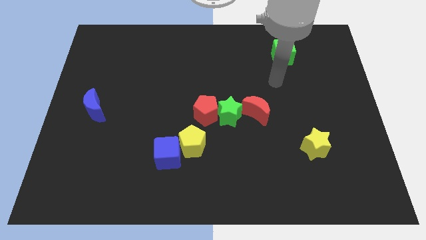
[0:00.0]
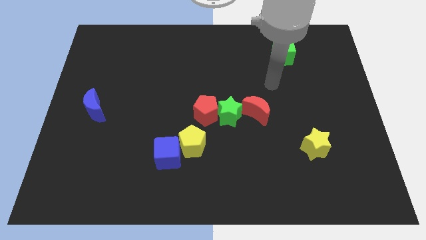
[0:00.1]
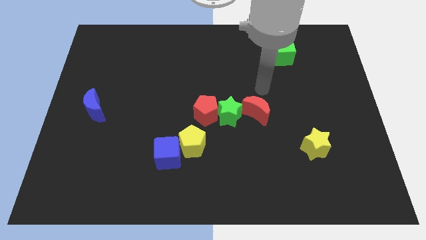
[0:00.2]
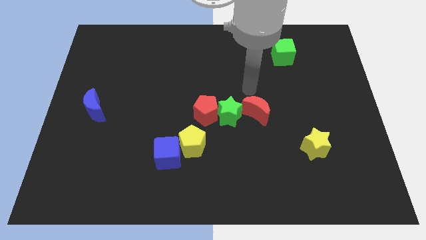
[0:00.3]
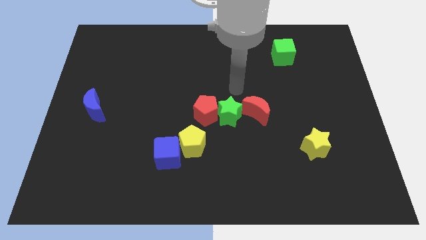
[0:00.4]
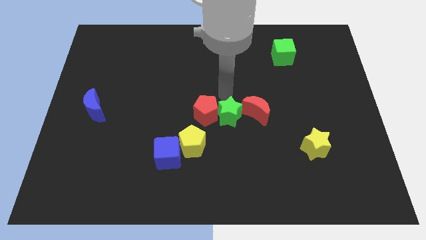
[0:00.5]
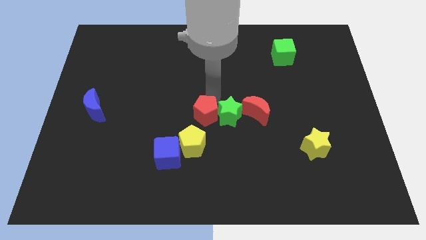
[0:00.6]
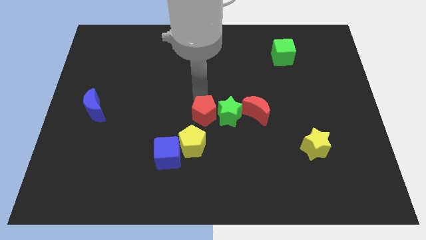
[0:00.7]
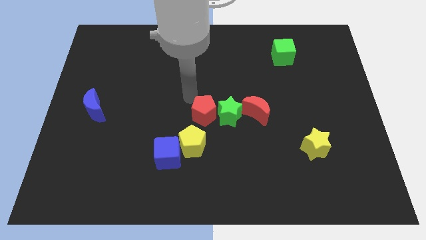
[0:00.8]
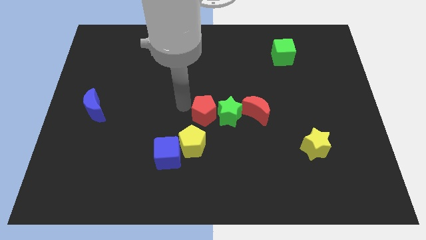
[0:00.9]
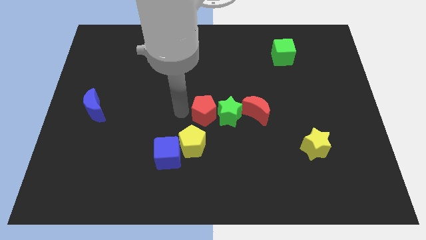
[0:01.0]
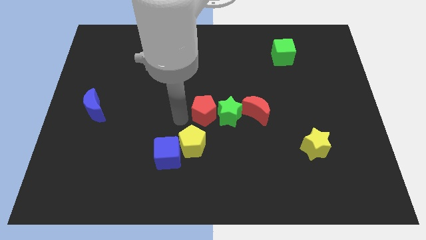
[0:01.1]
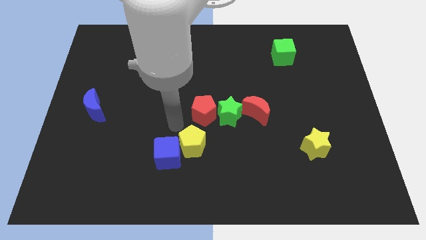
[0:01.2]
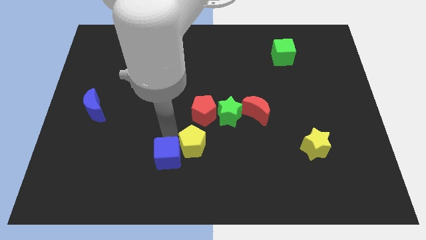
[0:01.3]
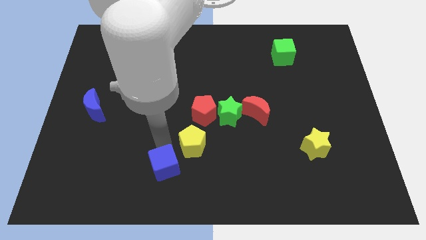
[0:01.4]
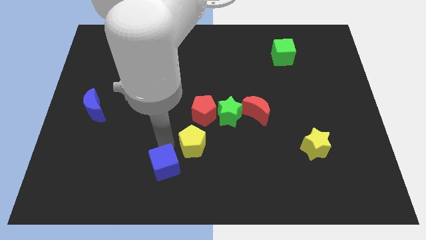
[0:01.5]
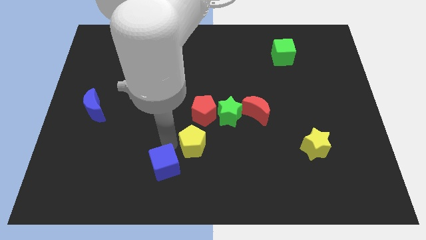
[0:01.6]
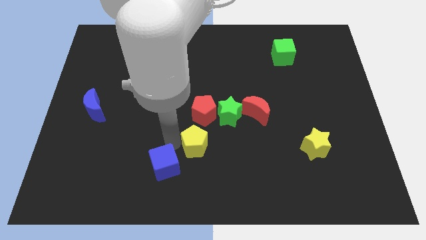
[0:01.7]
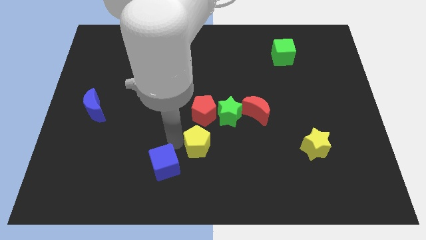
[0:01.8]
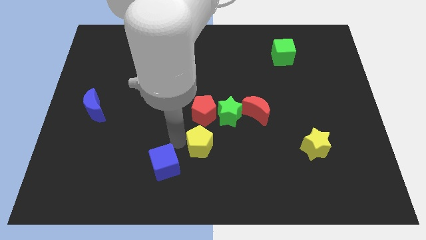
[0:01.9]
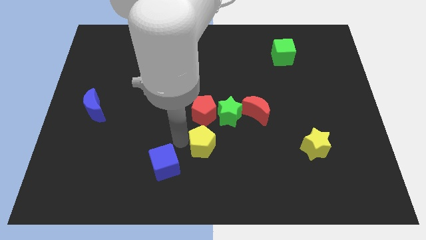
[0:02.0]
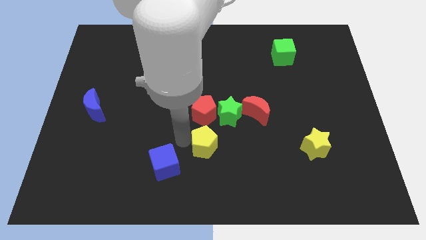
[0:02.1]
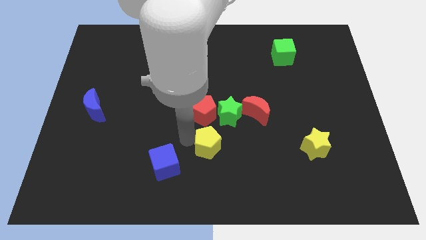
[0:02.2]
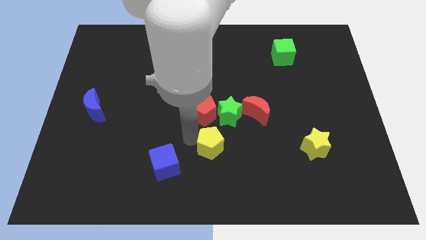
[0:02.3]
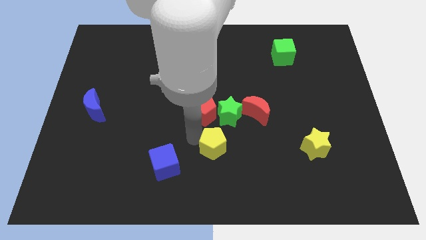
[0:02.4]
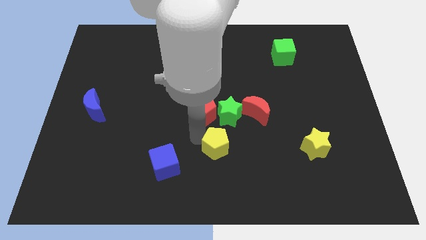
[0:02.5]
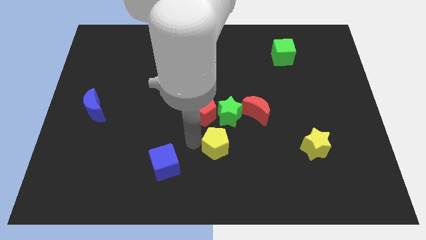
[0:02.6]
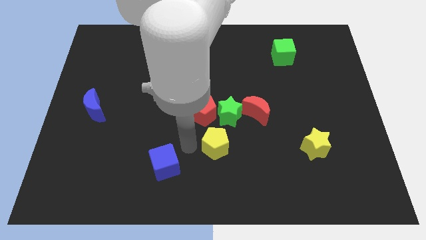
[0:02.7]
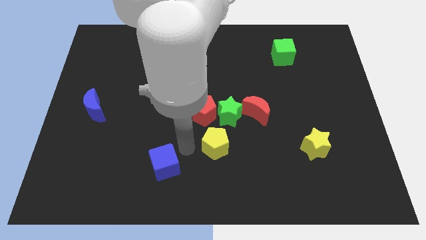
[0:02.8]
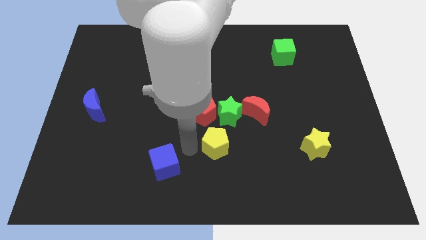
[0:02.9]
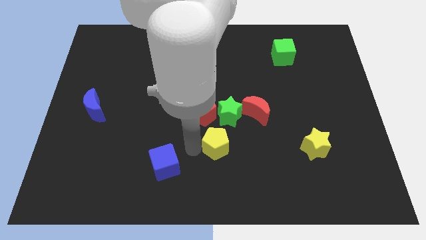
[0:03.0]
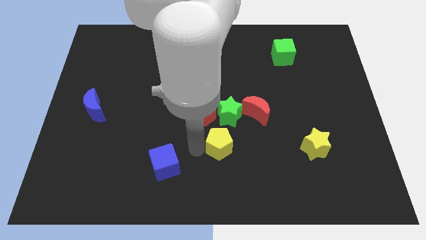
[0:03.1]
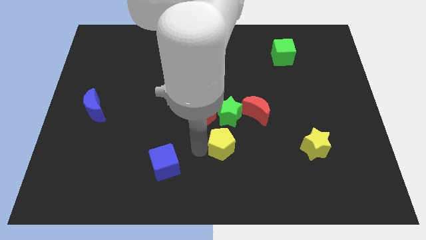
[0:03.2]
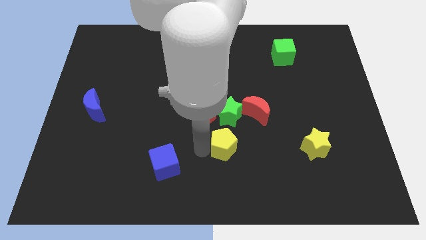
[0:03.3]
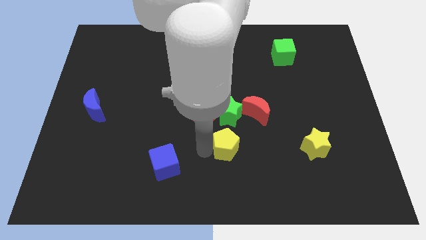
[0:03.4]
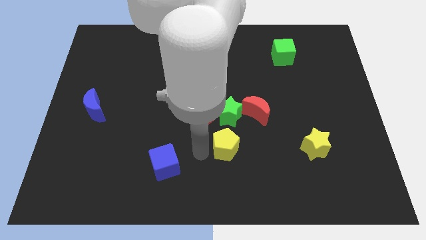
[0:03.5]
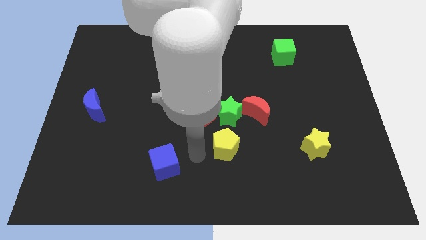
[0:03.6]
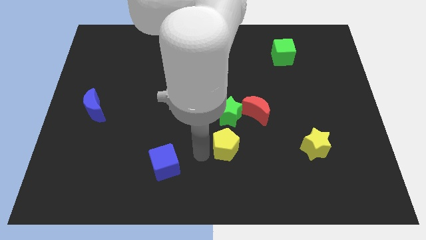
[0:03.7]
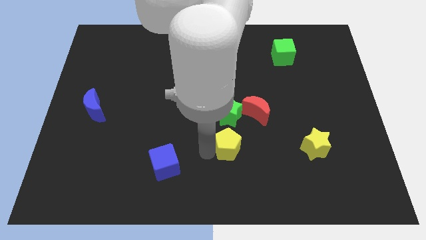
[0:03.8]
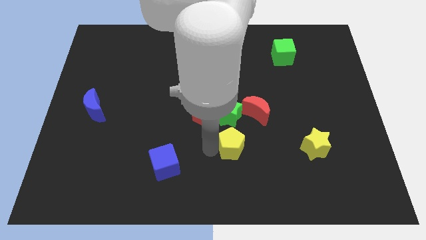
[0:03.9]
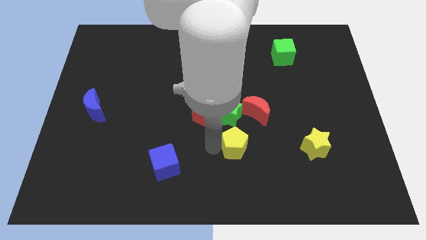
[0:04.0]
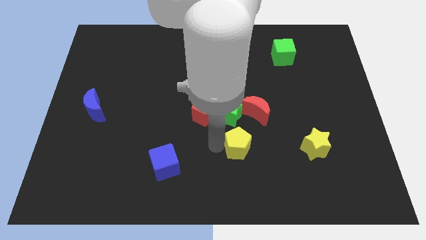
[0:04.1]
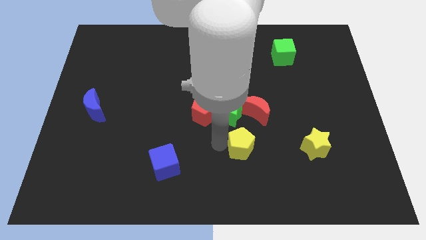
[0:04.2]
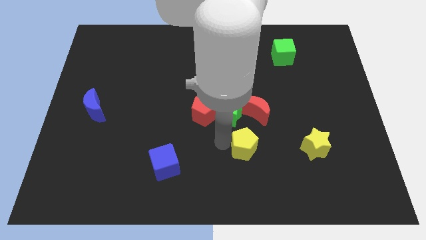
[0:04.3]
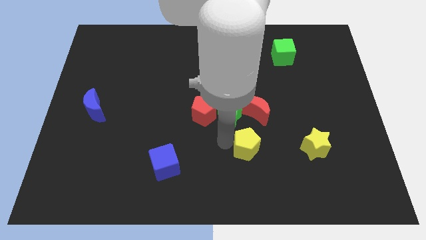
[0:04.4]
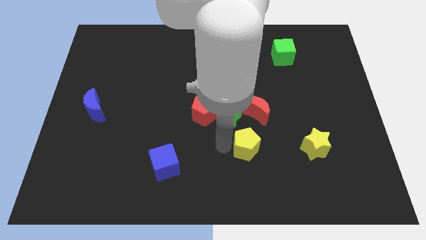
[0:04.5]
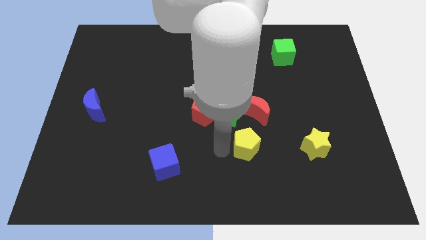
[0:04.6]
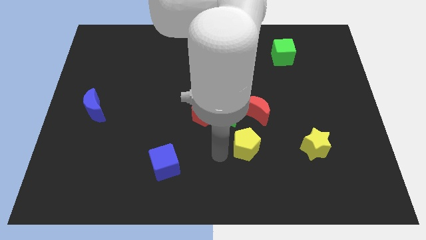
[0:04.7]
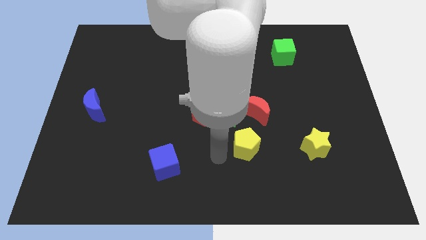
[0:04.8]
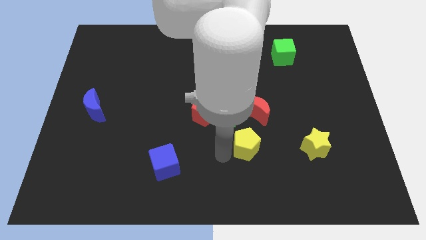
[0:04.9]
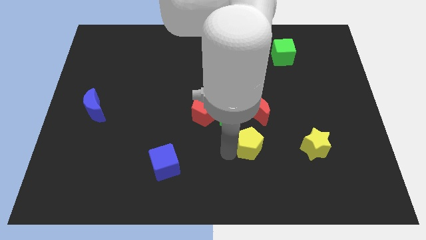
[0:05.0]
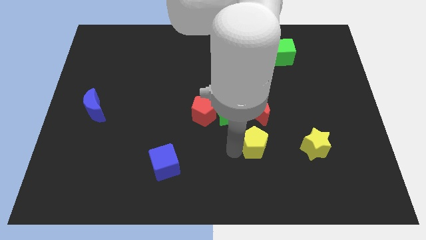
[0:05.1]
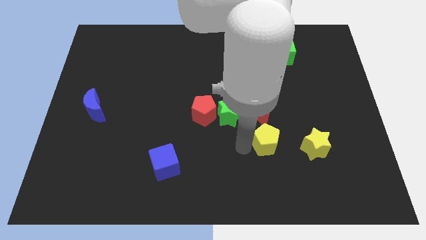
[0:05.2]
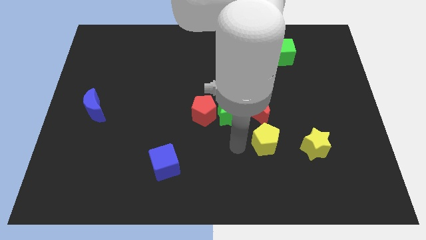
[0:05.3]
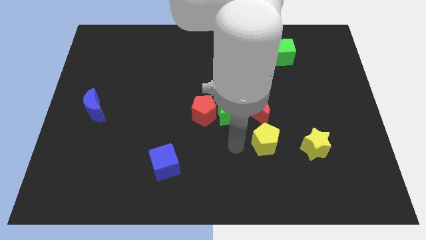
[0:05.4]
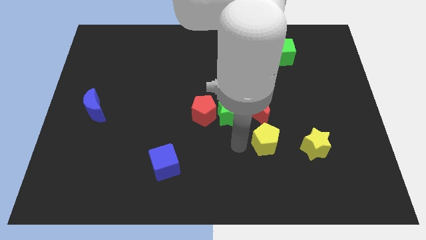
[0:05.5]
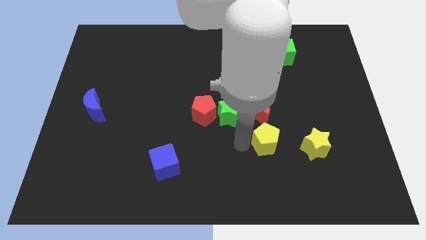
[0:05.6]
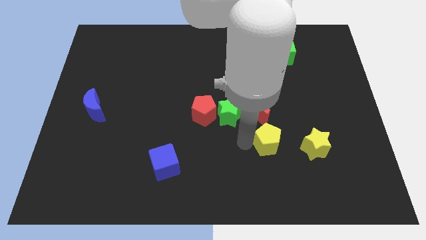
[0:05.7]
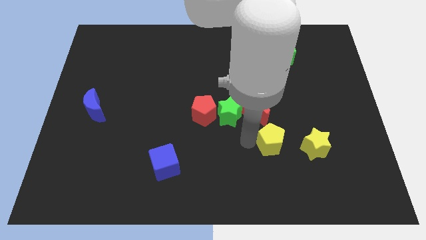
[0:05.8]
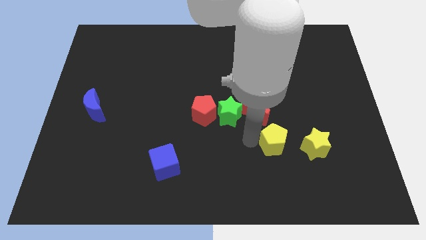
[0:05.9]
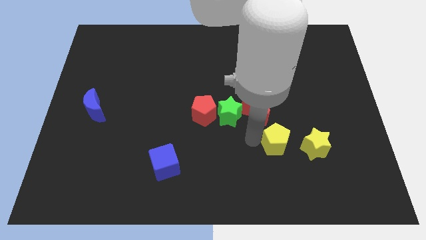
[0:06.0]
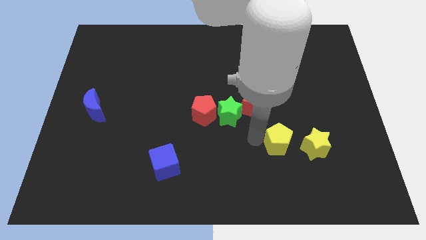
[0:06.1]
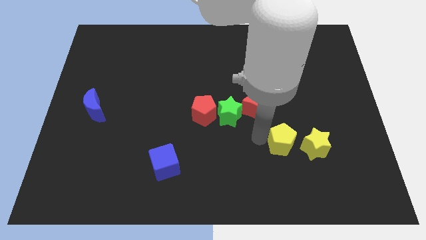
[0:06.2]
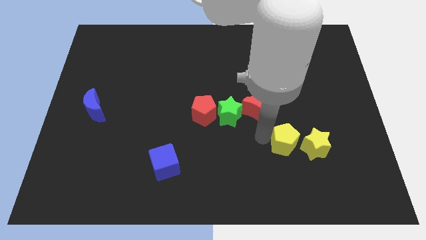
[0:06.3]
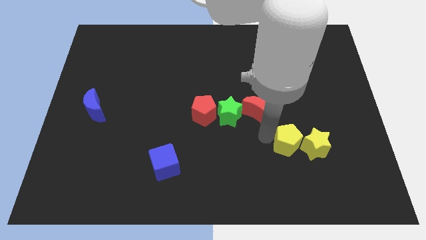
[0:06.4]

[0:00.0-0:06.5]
push the yellow pentagon close to the yellow star

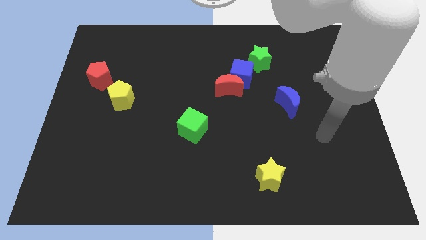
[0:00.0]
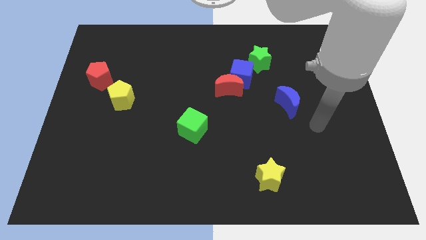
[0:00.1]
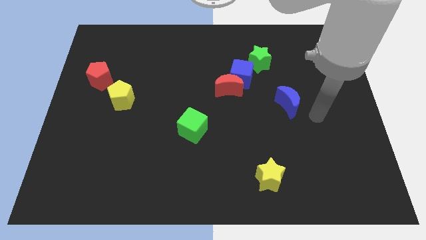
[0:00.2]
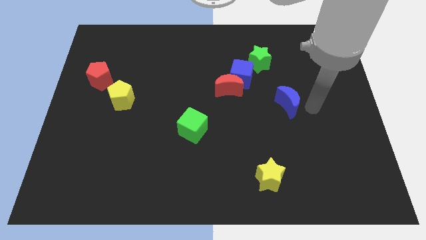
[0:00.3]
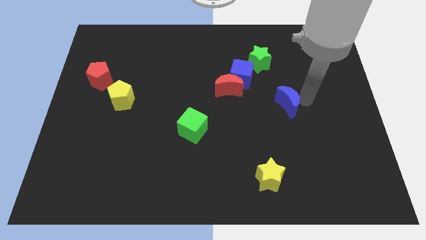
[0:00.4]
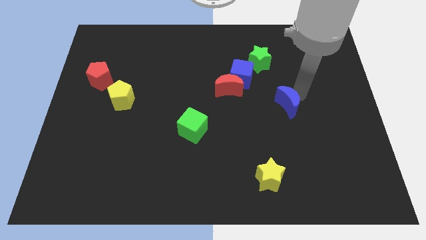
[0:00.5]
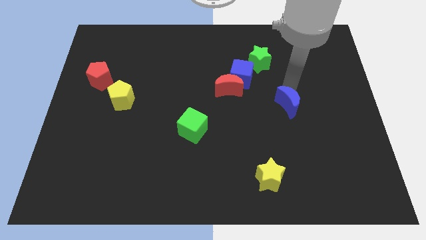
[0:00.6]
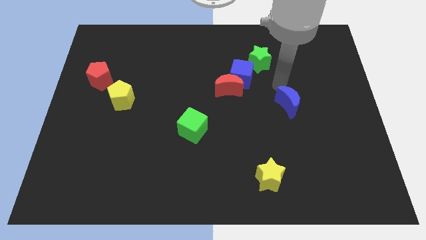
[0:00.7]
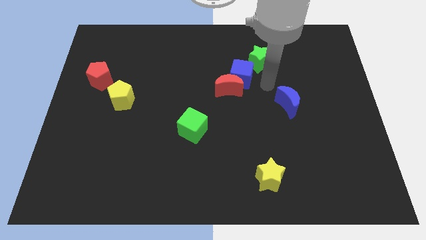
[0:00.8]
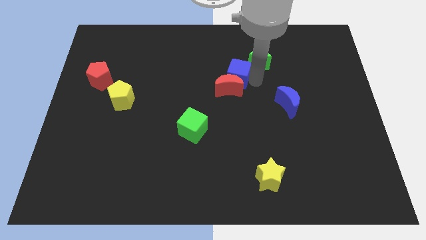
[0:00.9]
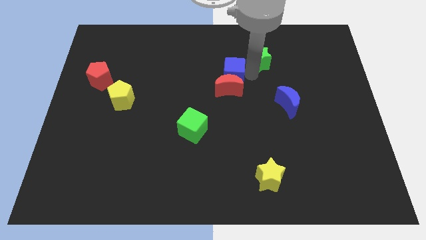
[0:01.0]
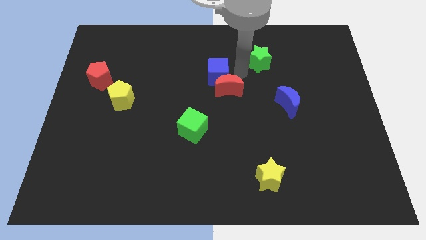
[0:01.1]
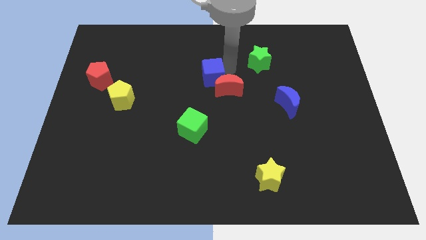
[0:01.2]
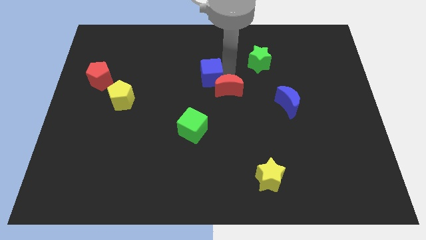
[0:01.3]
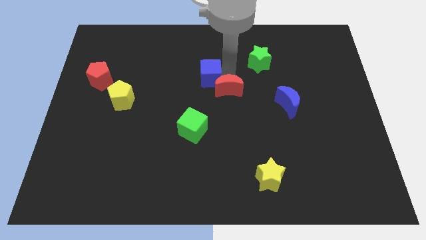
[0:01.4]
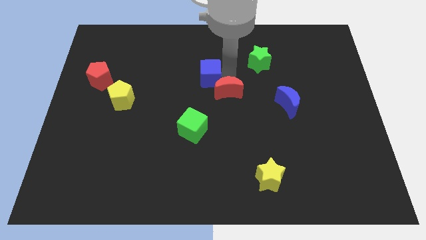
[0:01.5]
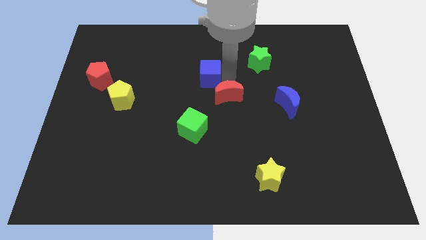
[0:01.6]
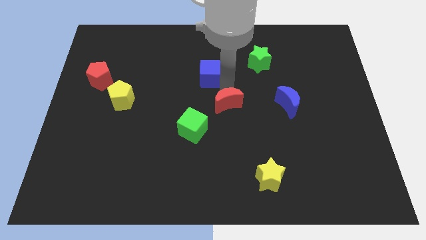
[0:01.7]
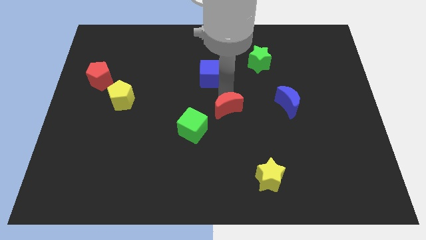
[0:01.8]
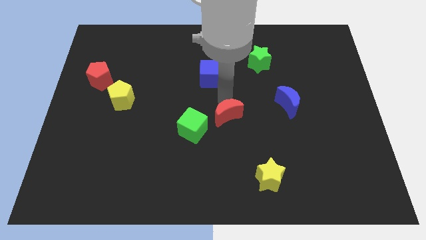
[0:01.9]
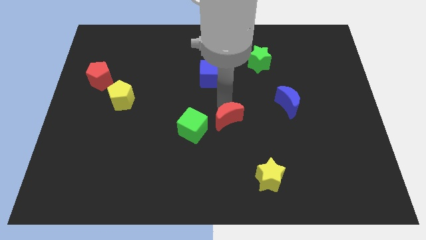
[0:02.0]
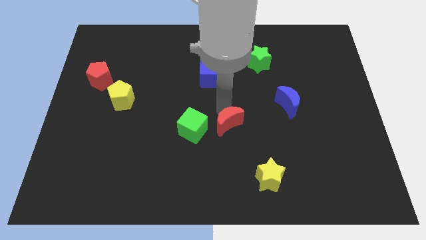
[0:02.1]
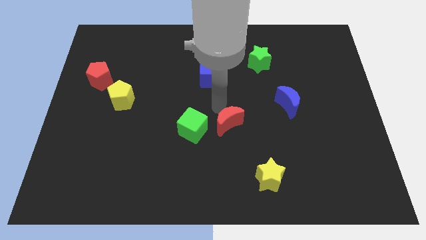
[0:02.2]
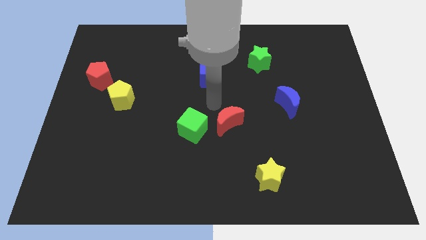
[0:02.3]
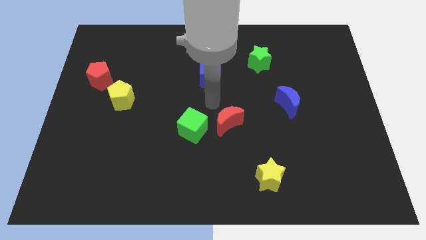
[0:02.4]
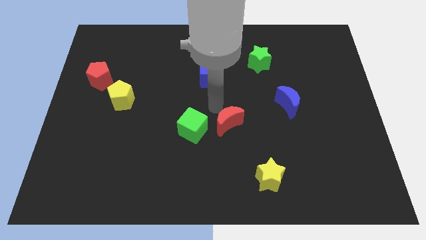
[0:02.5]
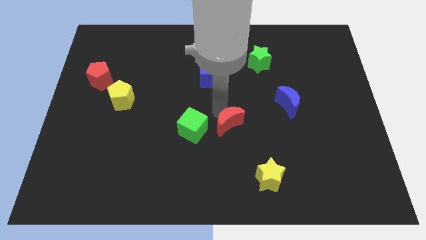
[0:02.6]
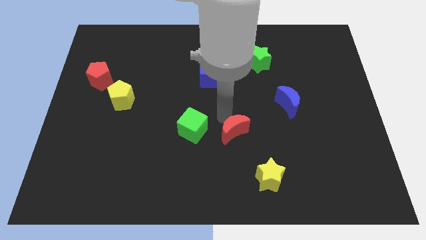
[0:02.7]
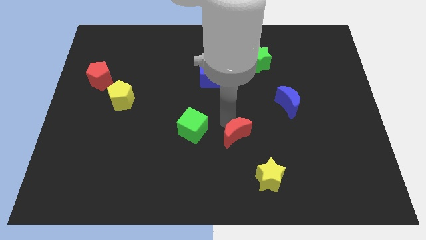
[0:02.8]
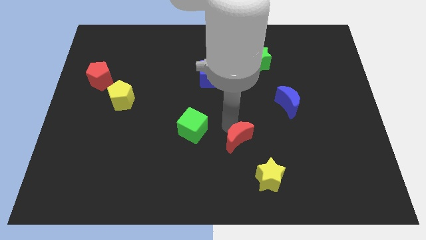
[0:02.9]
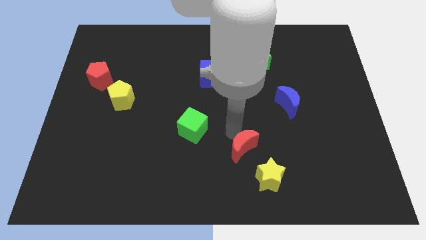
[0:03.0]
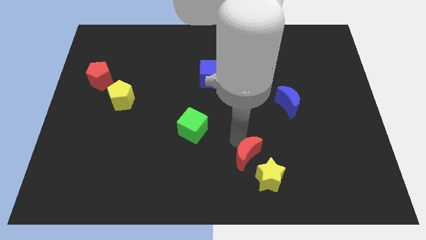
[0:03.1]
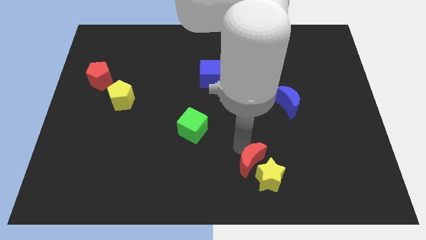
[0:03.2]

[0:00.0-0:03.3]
put the red moon next to the yellow star
